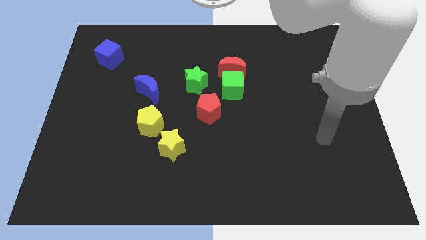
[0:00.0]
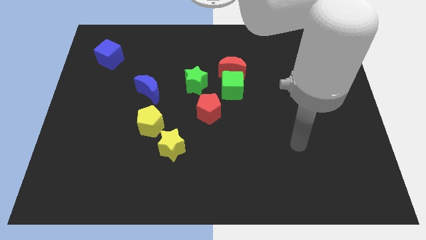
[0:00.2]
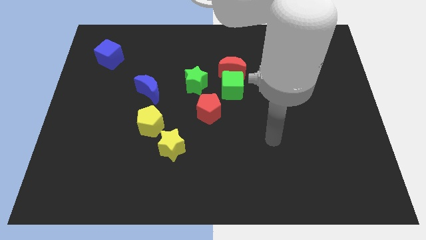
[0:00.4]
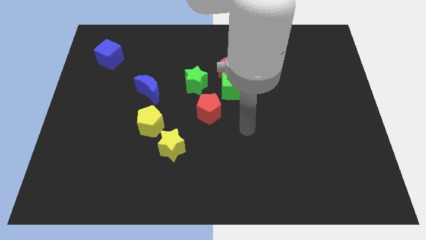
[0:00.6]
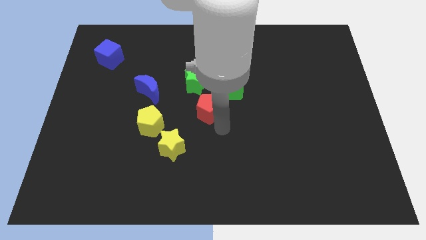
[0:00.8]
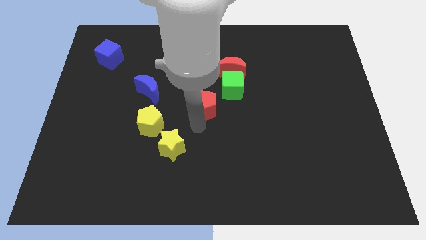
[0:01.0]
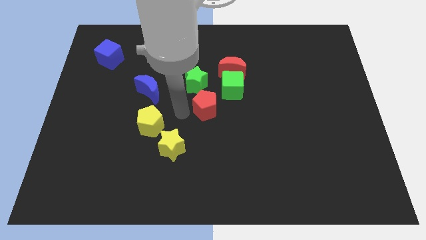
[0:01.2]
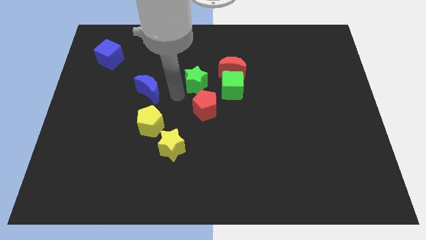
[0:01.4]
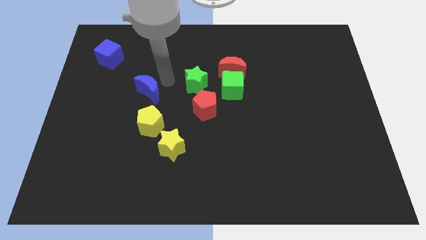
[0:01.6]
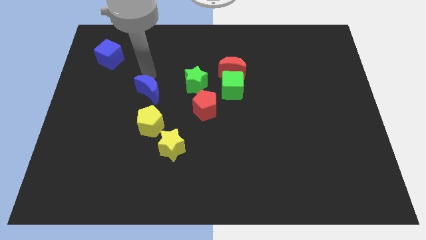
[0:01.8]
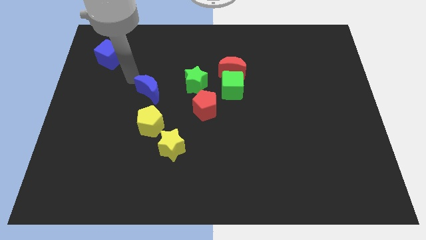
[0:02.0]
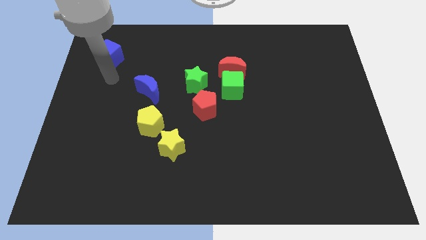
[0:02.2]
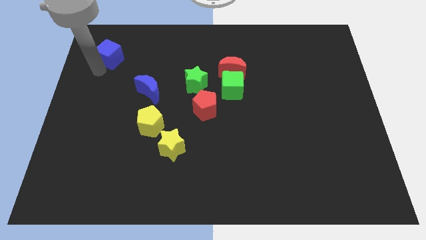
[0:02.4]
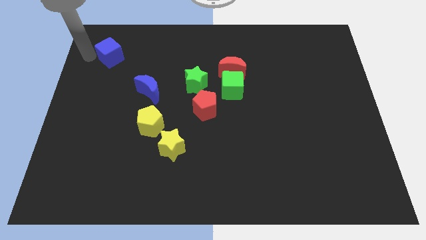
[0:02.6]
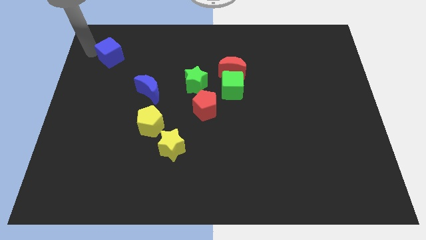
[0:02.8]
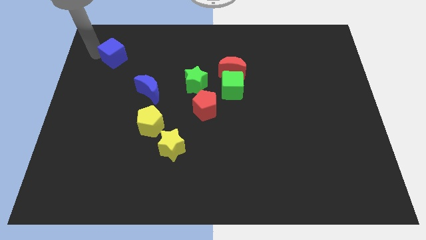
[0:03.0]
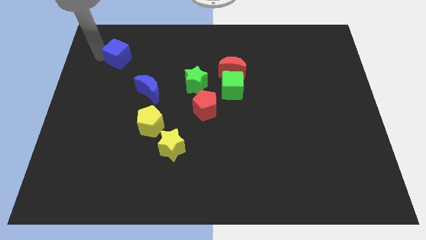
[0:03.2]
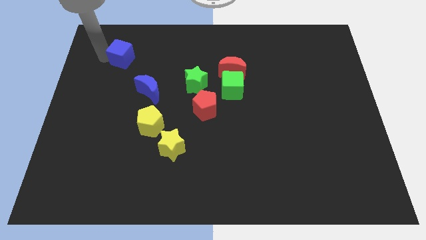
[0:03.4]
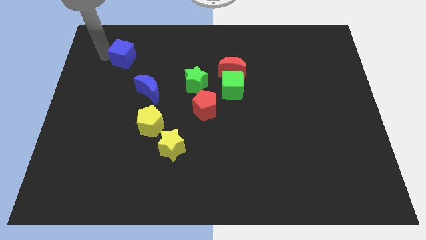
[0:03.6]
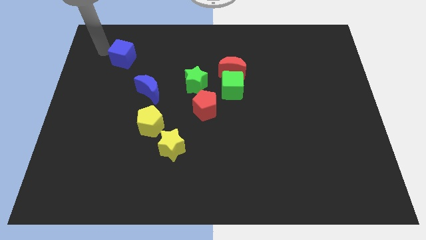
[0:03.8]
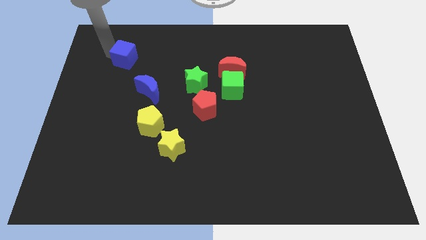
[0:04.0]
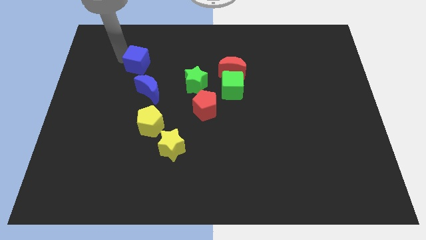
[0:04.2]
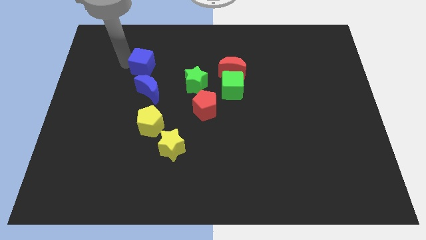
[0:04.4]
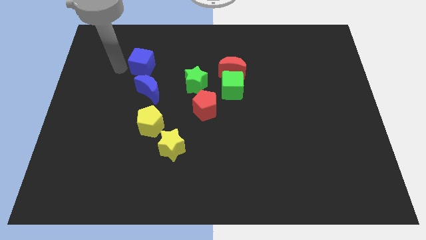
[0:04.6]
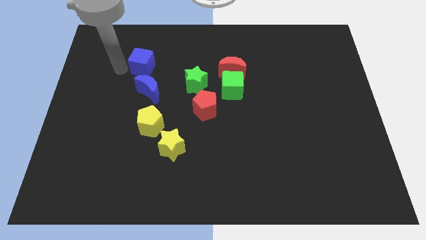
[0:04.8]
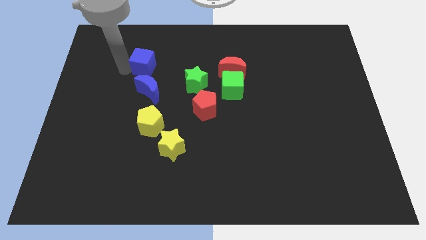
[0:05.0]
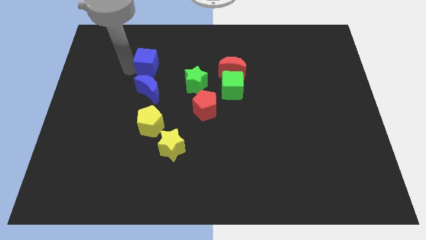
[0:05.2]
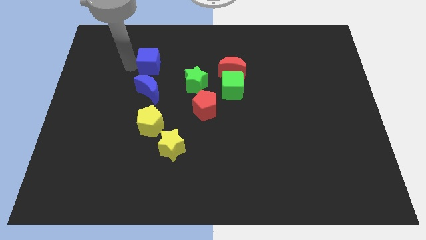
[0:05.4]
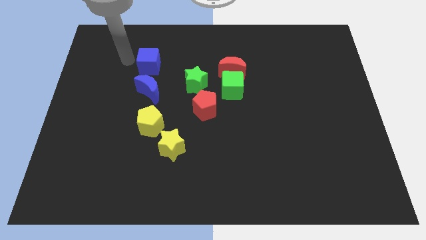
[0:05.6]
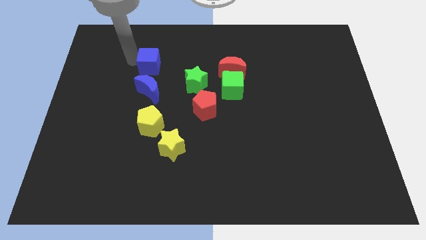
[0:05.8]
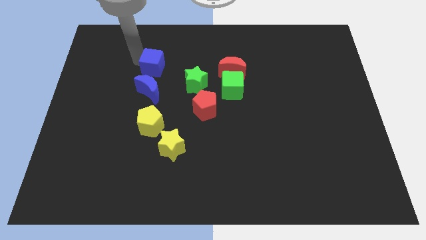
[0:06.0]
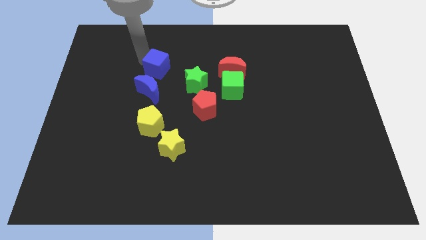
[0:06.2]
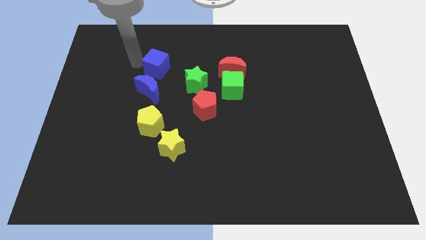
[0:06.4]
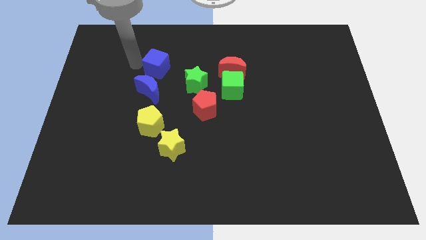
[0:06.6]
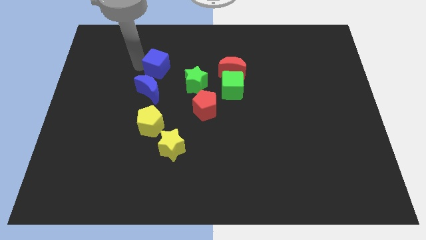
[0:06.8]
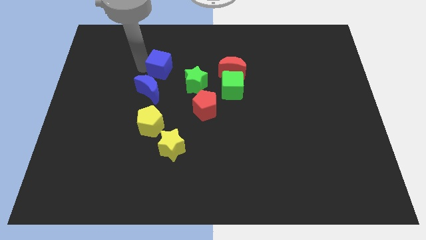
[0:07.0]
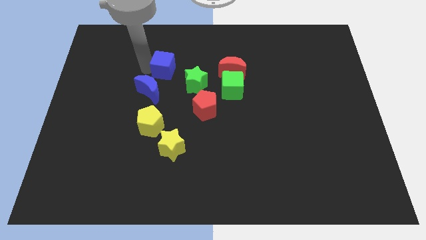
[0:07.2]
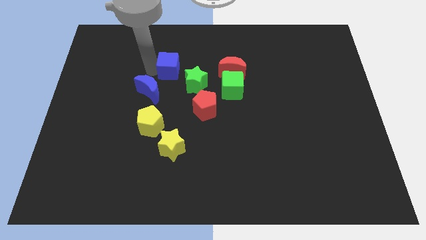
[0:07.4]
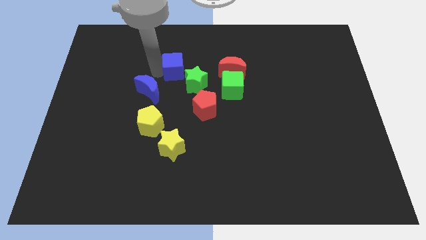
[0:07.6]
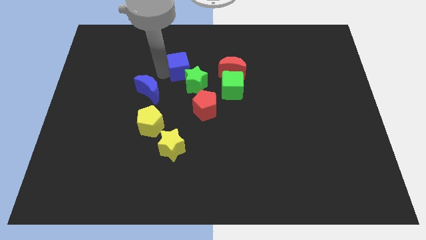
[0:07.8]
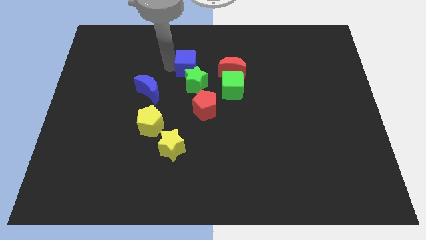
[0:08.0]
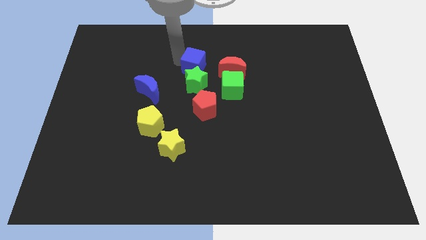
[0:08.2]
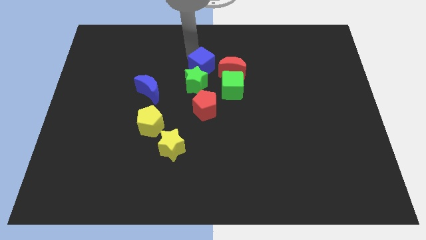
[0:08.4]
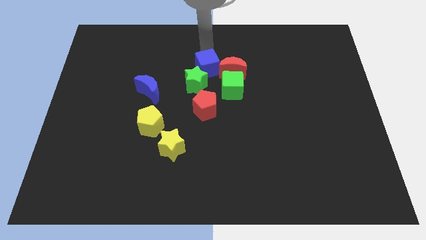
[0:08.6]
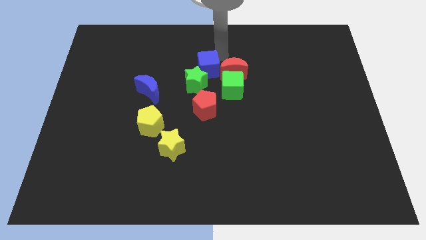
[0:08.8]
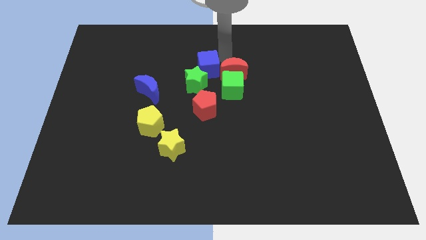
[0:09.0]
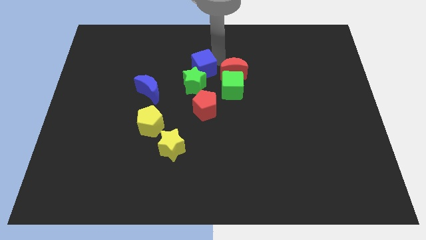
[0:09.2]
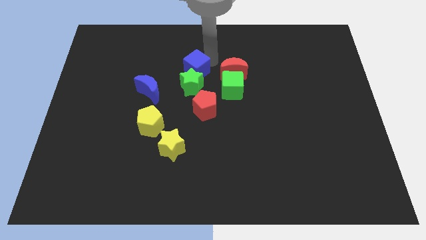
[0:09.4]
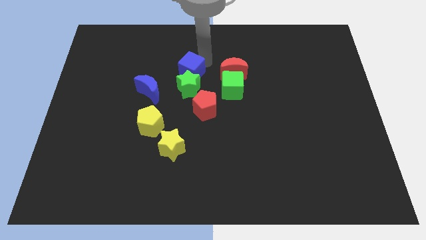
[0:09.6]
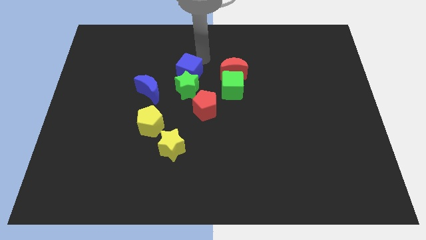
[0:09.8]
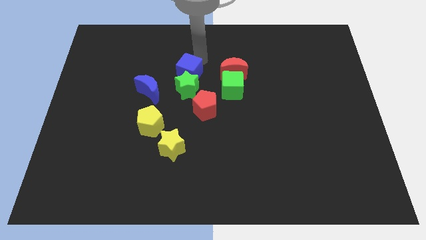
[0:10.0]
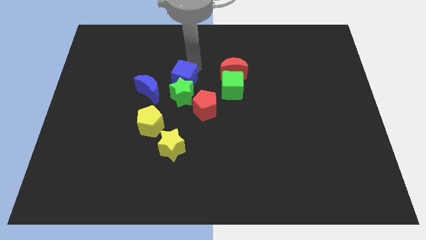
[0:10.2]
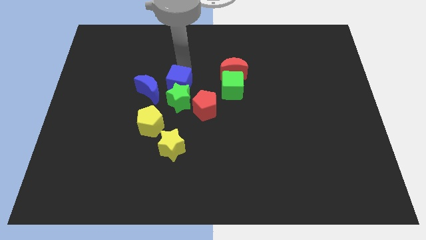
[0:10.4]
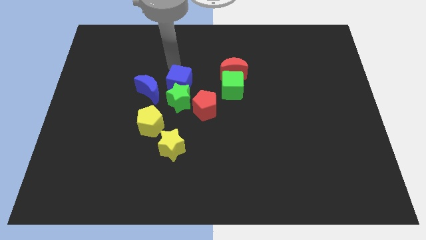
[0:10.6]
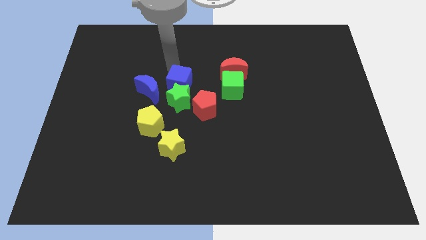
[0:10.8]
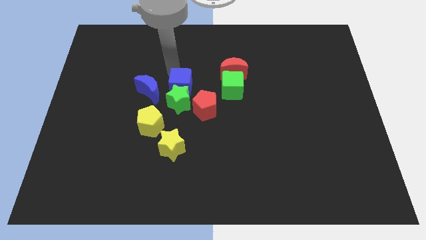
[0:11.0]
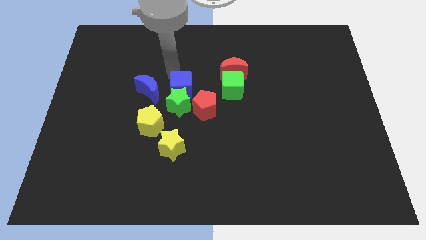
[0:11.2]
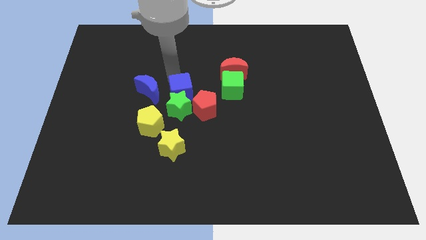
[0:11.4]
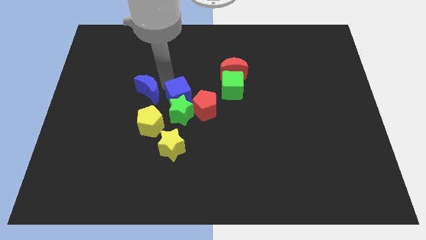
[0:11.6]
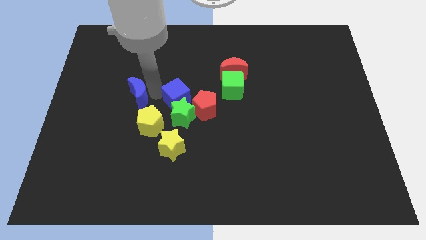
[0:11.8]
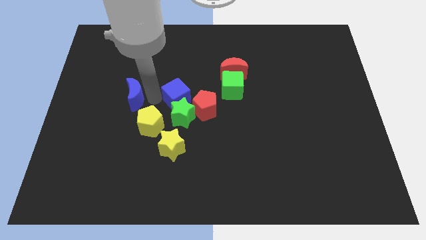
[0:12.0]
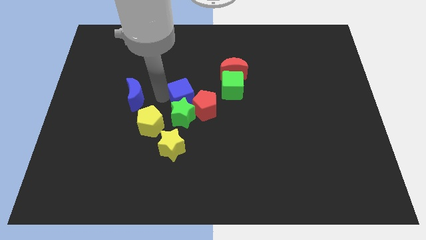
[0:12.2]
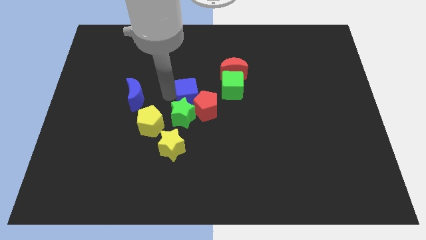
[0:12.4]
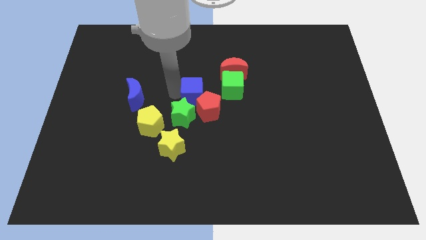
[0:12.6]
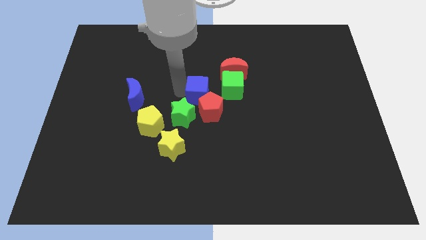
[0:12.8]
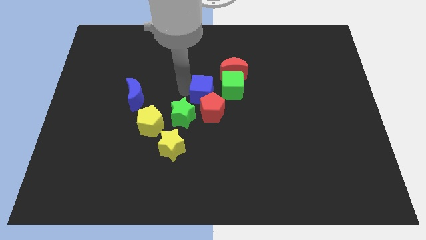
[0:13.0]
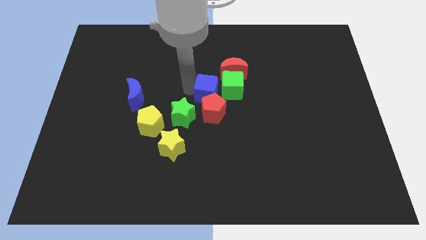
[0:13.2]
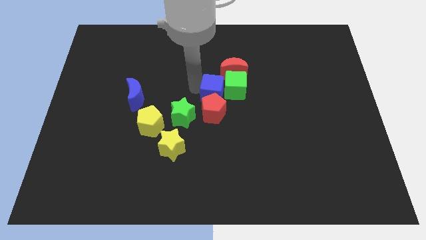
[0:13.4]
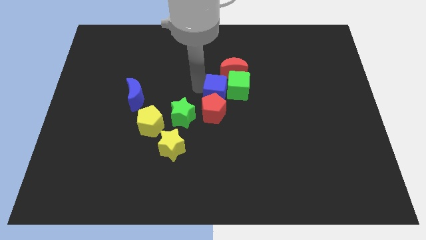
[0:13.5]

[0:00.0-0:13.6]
move the blue cube to the bottom side of the red moon
